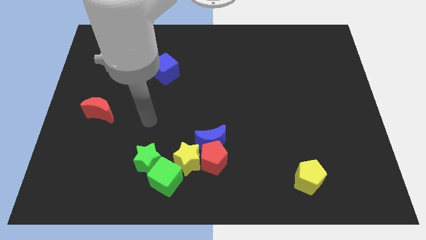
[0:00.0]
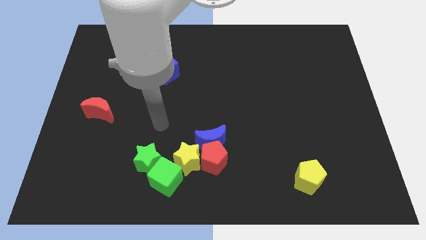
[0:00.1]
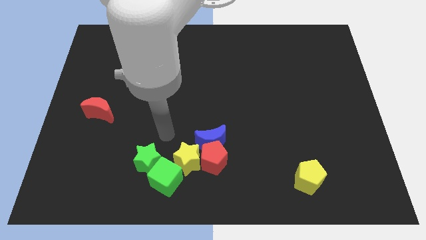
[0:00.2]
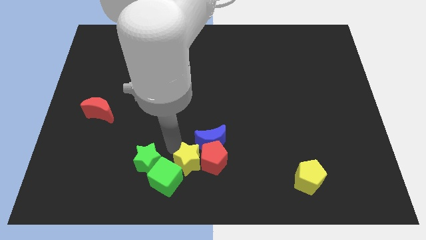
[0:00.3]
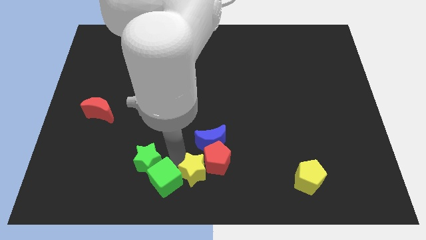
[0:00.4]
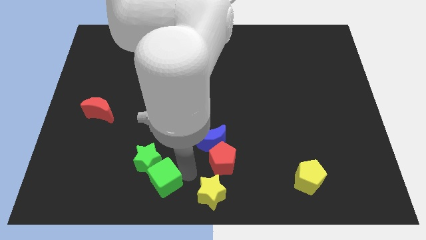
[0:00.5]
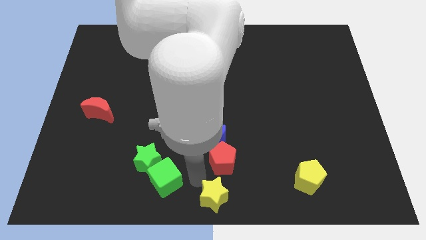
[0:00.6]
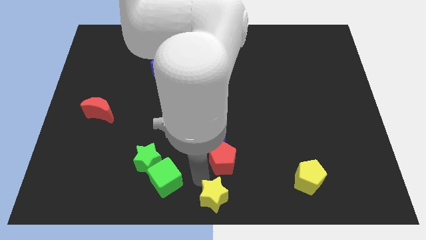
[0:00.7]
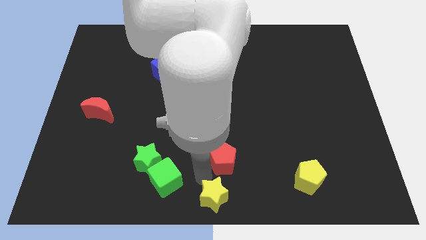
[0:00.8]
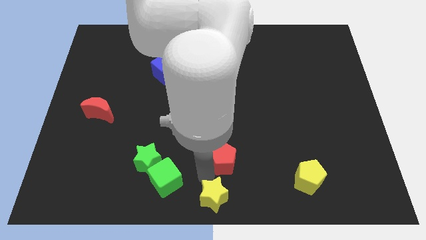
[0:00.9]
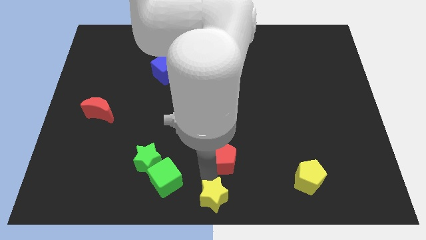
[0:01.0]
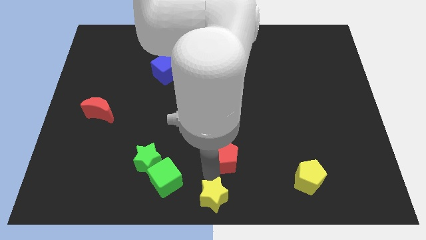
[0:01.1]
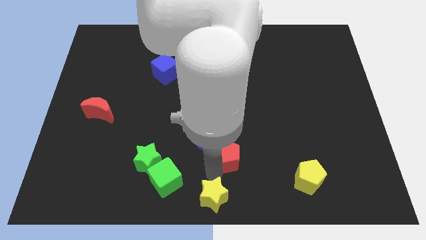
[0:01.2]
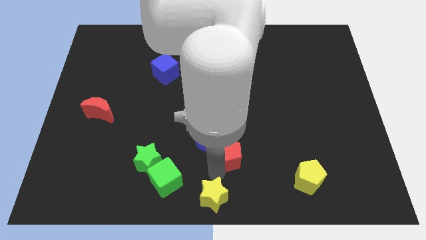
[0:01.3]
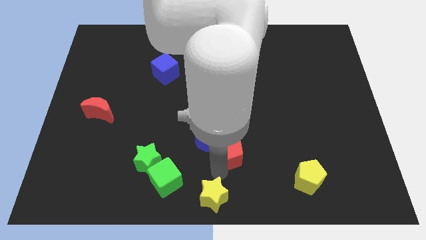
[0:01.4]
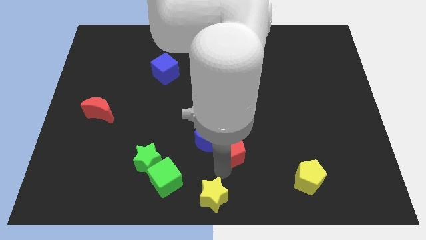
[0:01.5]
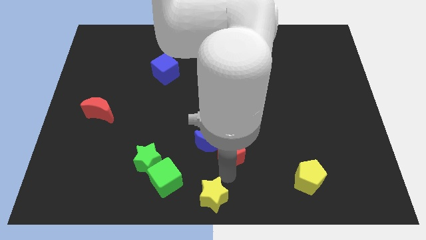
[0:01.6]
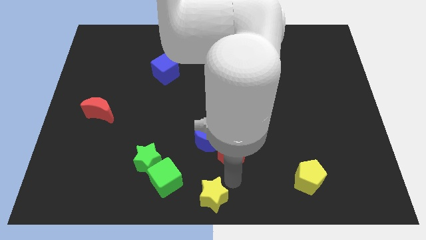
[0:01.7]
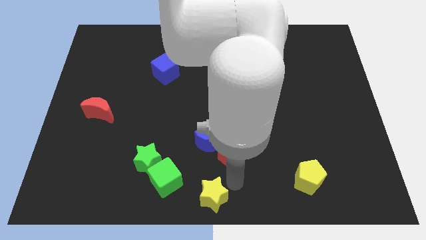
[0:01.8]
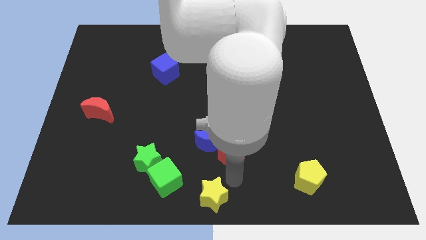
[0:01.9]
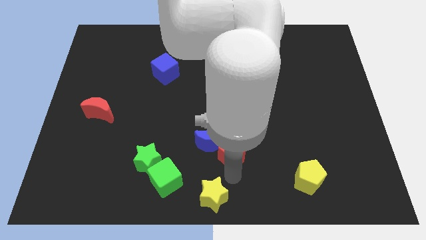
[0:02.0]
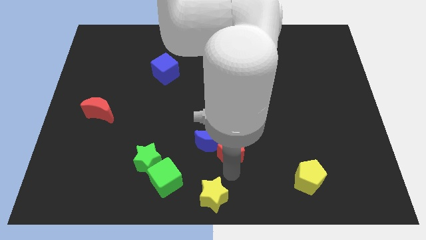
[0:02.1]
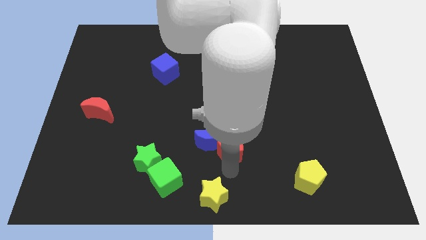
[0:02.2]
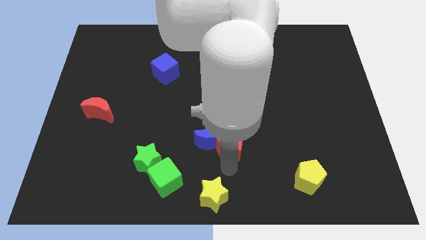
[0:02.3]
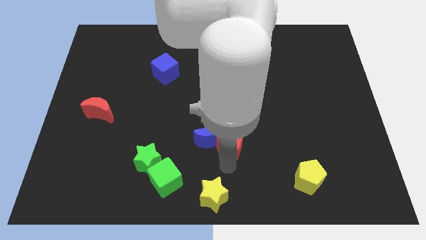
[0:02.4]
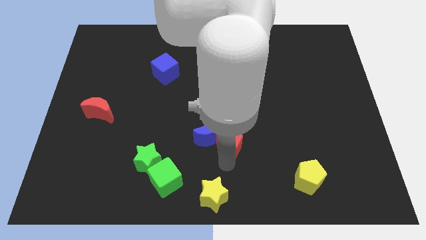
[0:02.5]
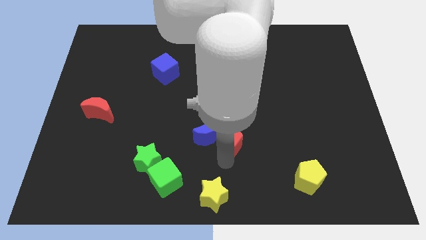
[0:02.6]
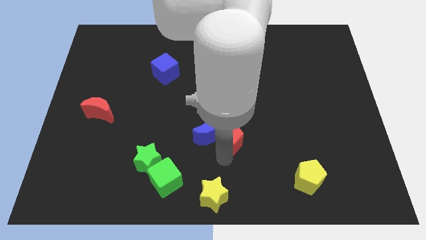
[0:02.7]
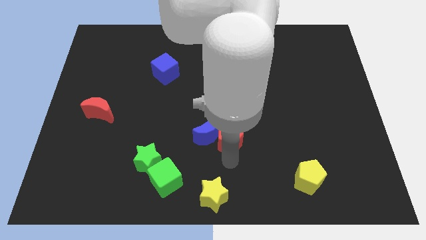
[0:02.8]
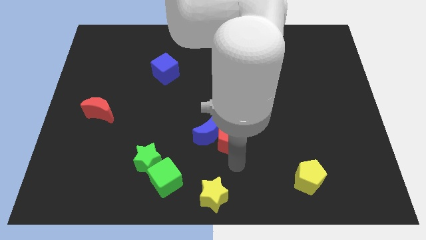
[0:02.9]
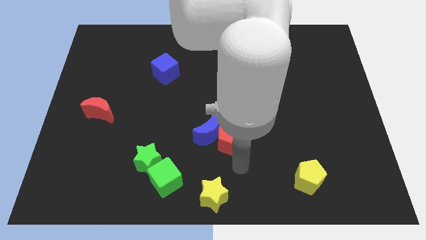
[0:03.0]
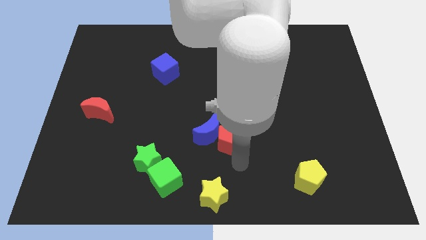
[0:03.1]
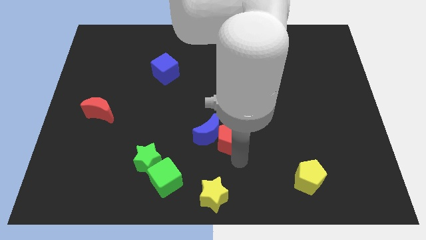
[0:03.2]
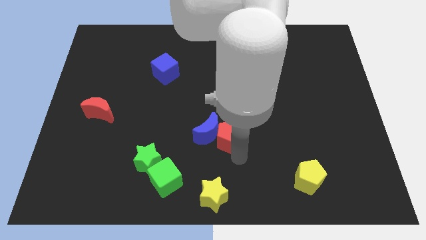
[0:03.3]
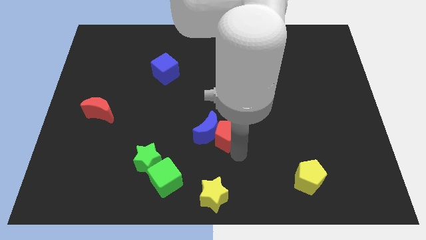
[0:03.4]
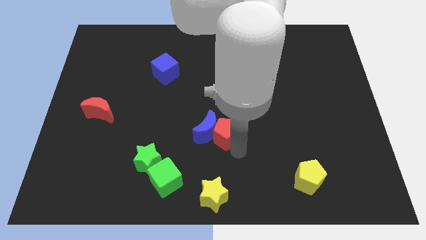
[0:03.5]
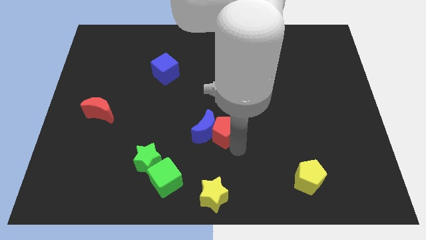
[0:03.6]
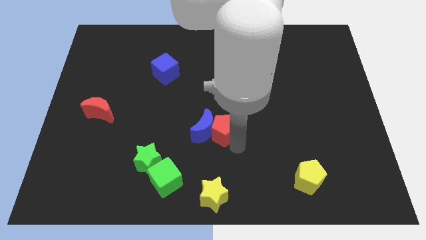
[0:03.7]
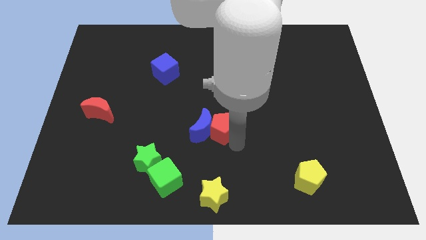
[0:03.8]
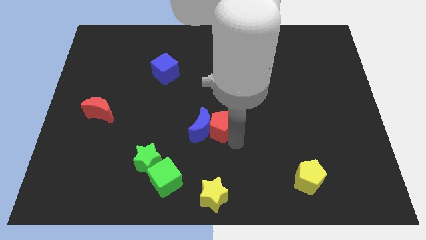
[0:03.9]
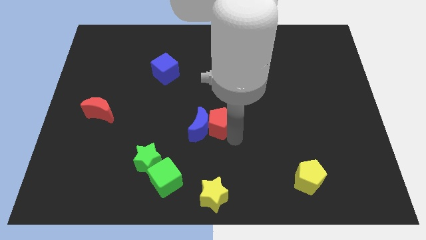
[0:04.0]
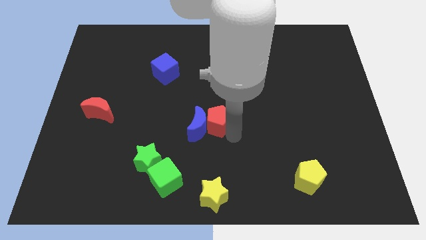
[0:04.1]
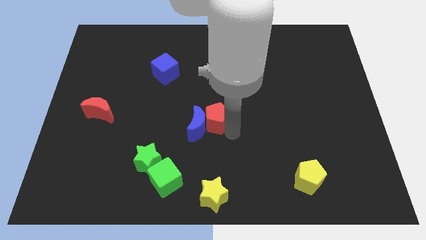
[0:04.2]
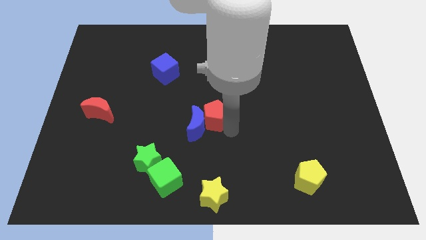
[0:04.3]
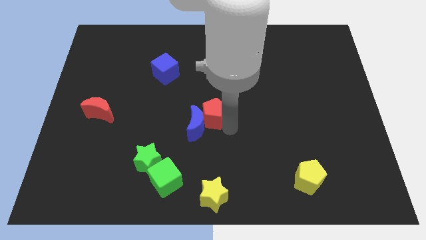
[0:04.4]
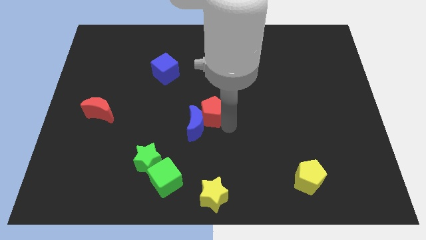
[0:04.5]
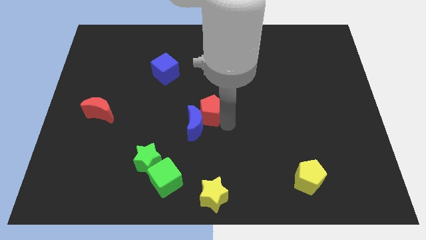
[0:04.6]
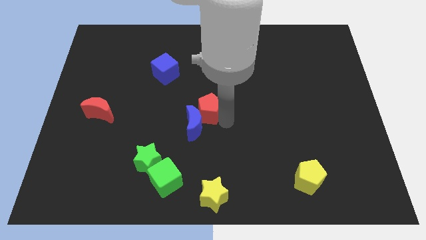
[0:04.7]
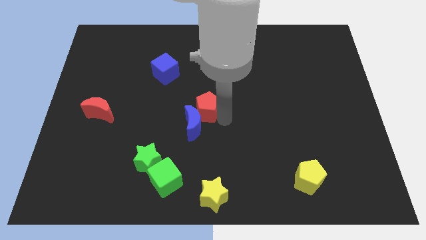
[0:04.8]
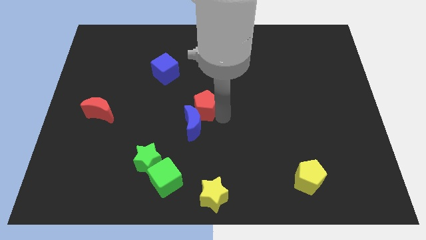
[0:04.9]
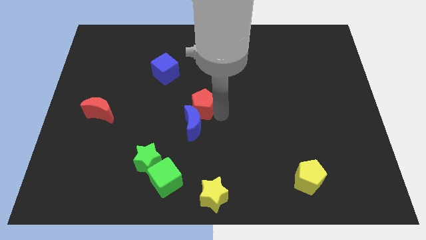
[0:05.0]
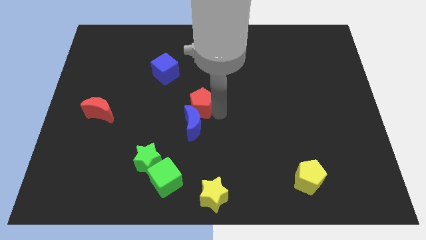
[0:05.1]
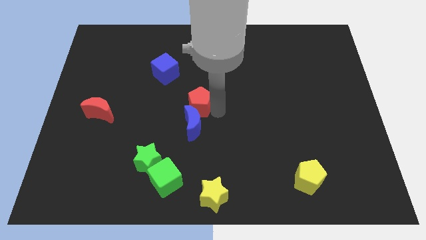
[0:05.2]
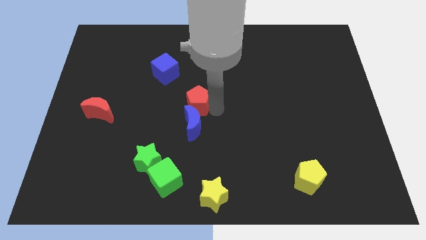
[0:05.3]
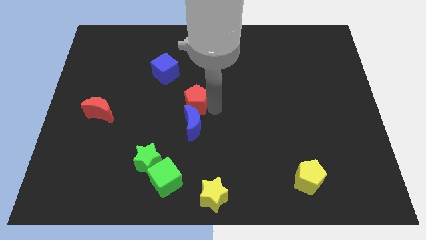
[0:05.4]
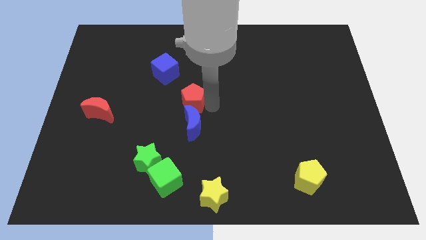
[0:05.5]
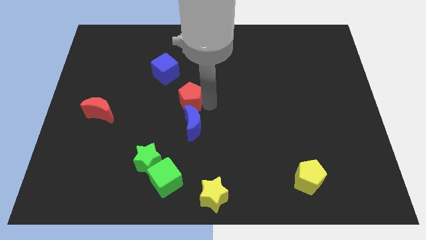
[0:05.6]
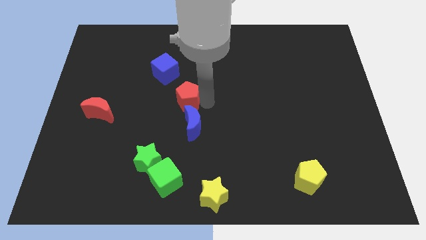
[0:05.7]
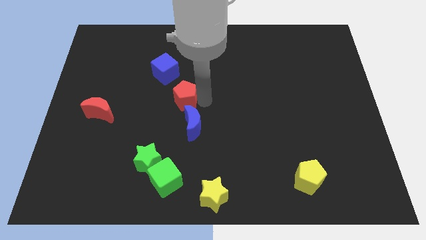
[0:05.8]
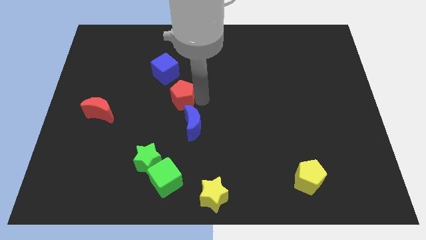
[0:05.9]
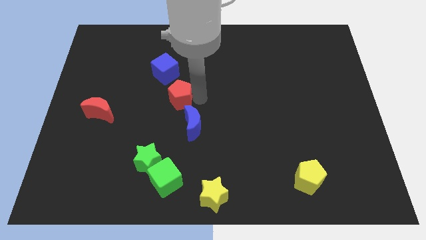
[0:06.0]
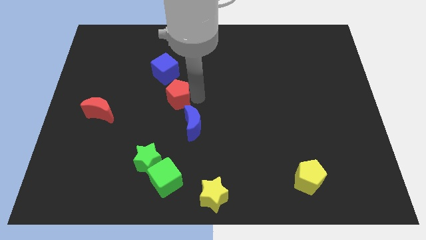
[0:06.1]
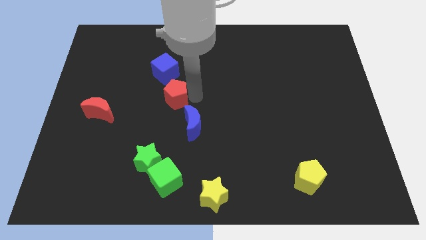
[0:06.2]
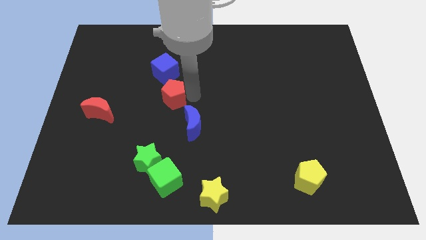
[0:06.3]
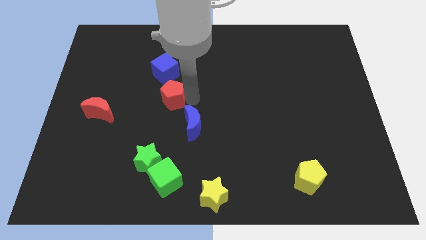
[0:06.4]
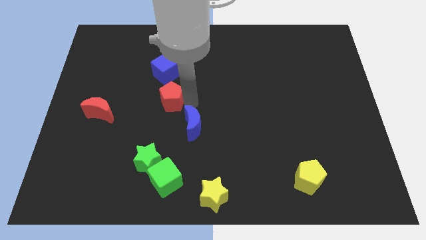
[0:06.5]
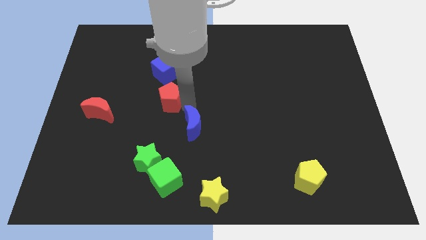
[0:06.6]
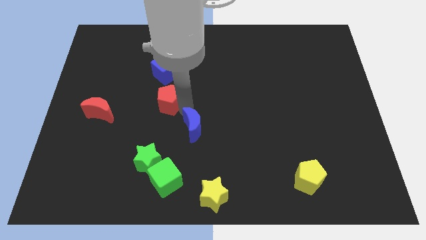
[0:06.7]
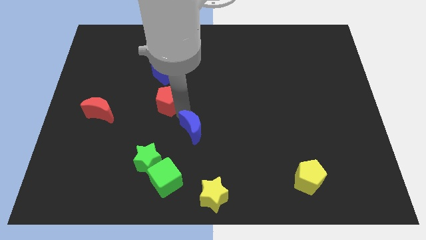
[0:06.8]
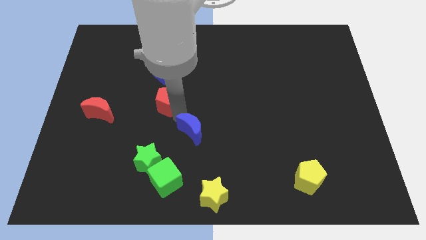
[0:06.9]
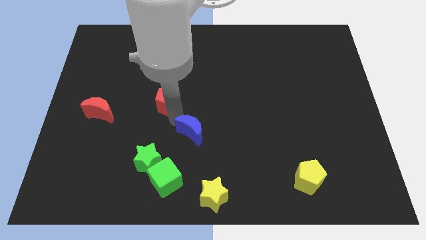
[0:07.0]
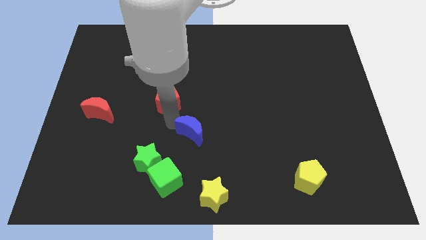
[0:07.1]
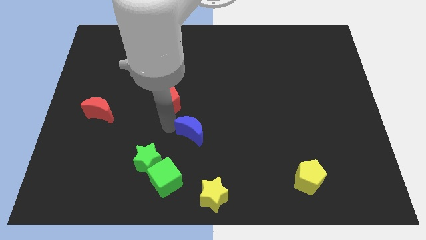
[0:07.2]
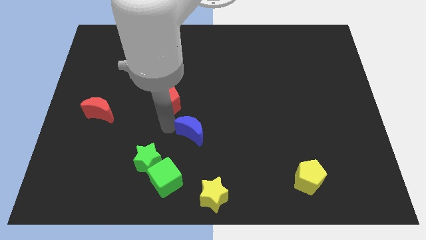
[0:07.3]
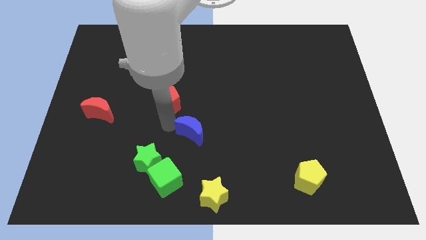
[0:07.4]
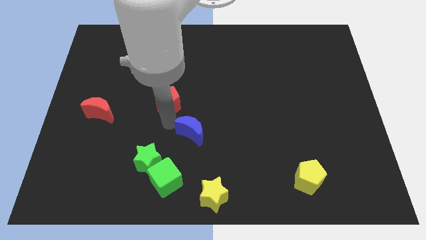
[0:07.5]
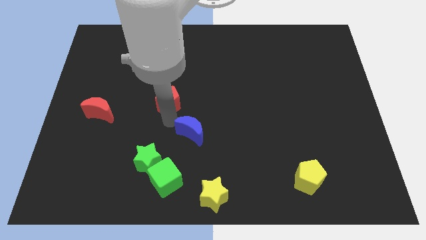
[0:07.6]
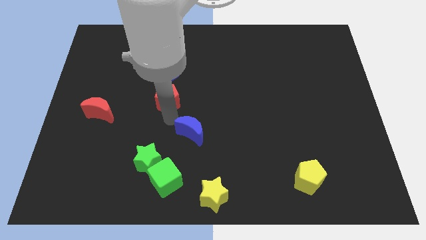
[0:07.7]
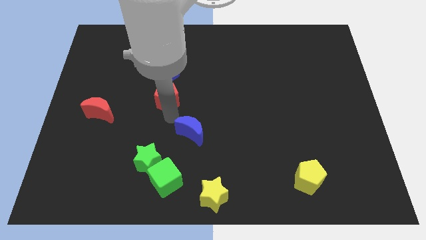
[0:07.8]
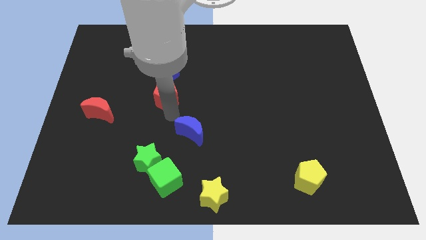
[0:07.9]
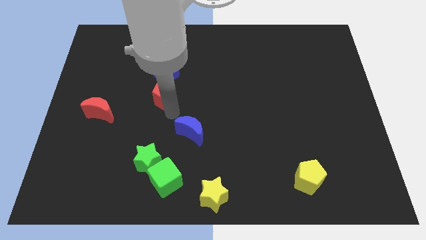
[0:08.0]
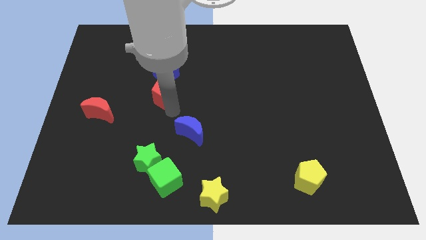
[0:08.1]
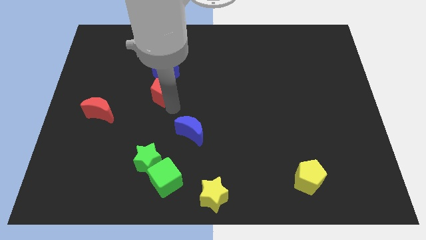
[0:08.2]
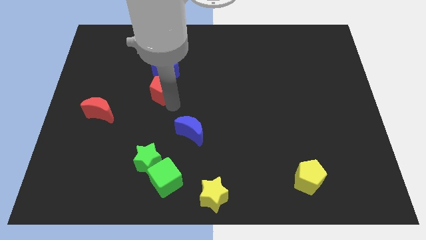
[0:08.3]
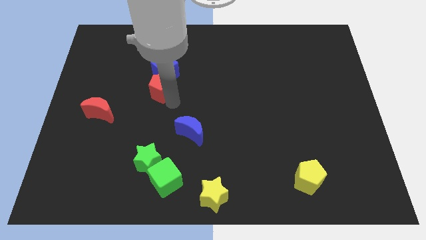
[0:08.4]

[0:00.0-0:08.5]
put the red pentagon towards the blue cube
